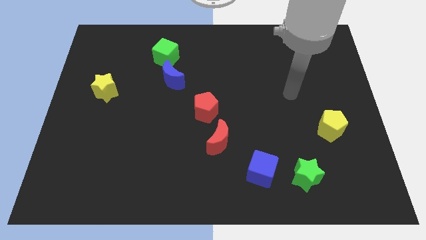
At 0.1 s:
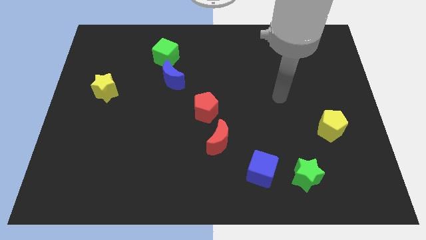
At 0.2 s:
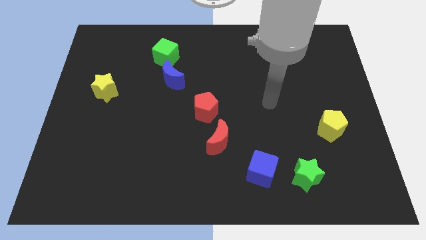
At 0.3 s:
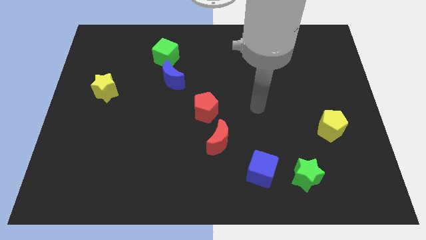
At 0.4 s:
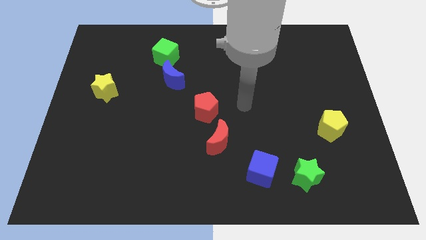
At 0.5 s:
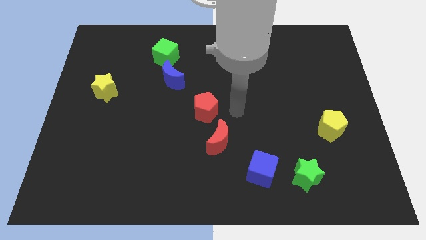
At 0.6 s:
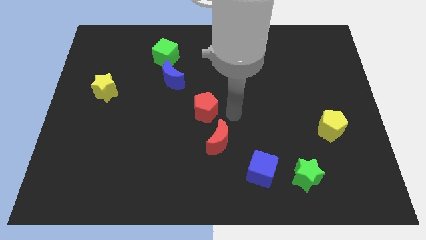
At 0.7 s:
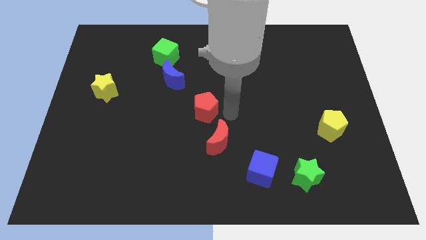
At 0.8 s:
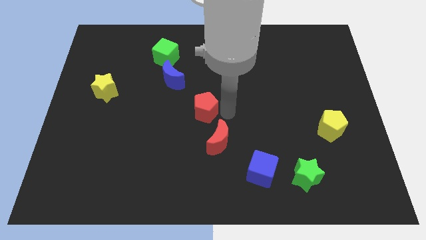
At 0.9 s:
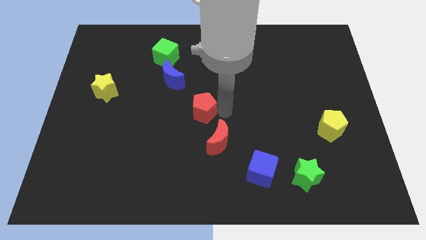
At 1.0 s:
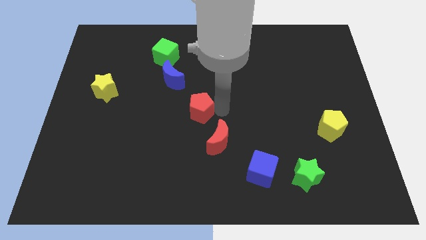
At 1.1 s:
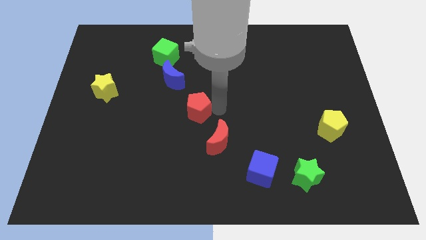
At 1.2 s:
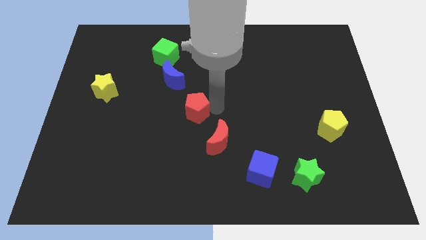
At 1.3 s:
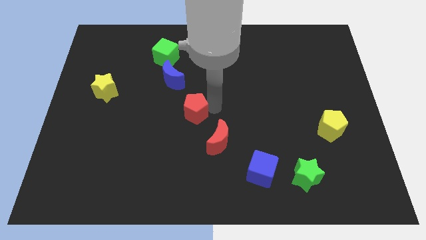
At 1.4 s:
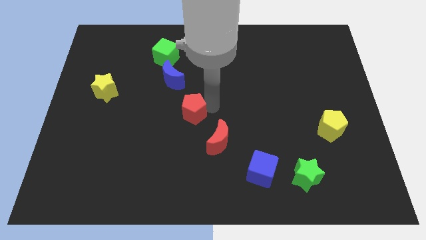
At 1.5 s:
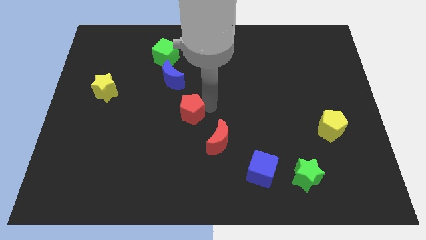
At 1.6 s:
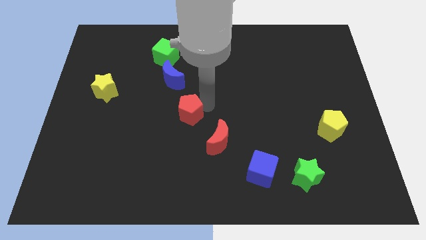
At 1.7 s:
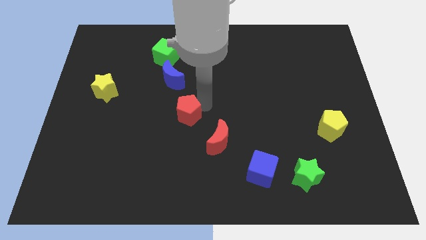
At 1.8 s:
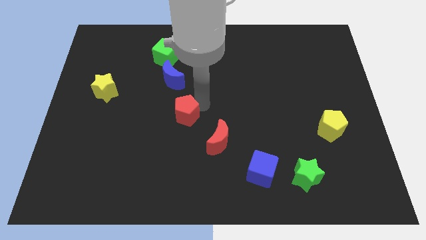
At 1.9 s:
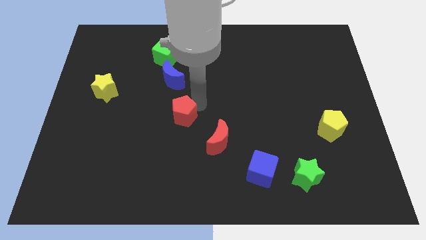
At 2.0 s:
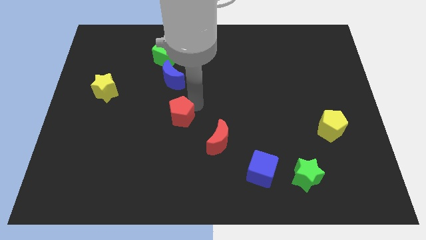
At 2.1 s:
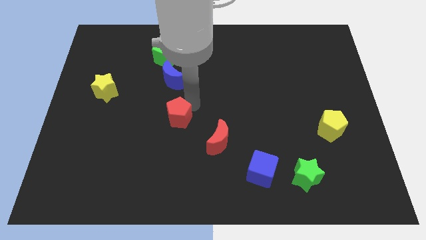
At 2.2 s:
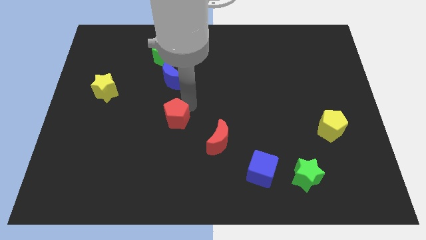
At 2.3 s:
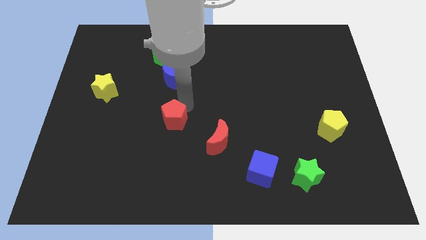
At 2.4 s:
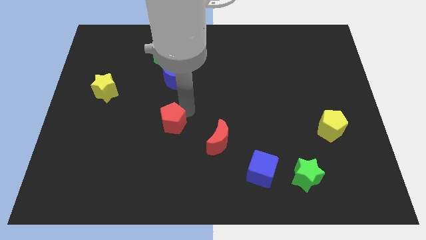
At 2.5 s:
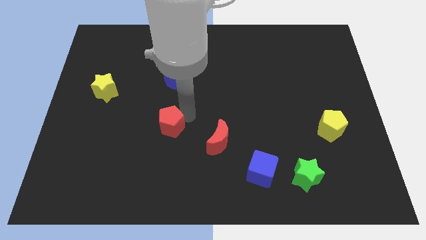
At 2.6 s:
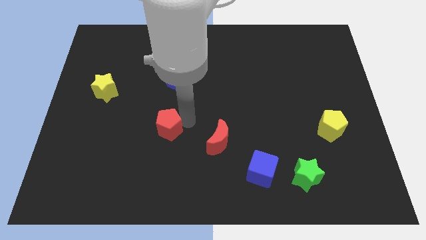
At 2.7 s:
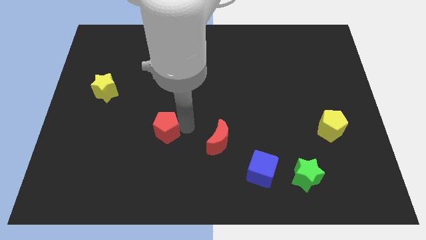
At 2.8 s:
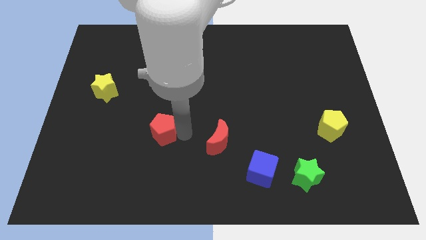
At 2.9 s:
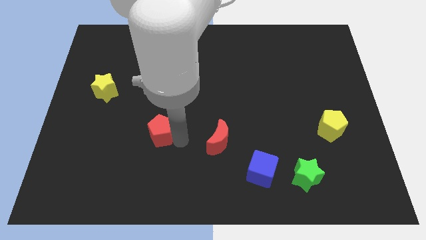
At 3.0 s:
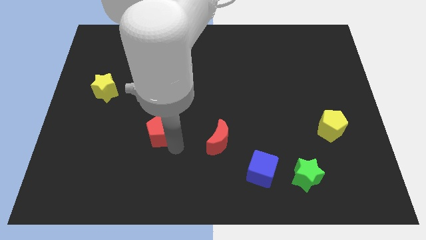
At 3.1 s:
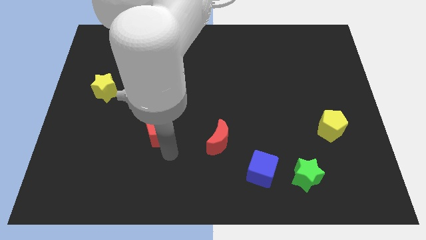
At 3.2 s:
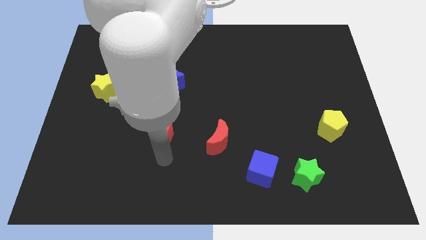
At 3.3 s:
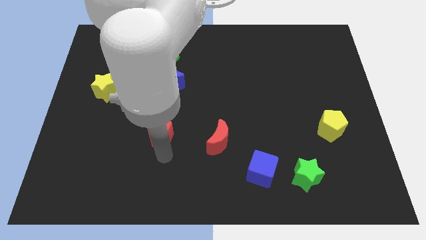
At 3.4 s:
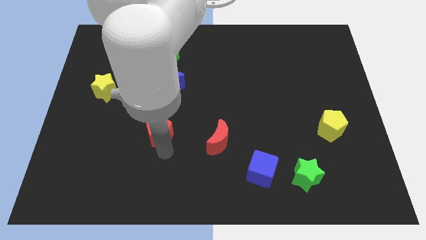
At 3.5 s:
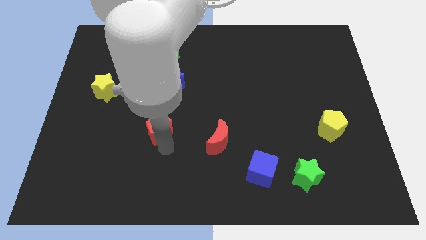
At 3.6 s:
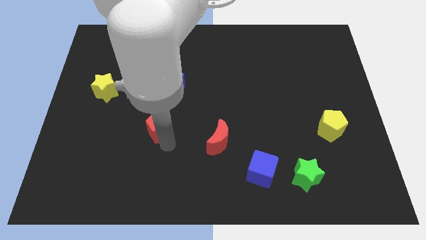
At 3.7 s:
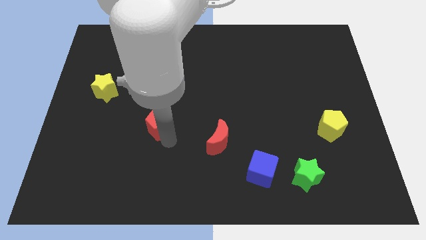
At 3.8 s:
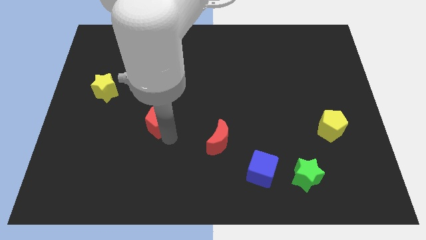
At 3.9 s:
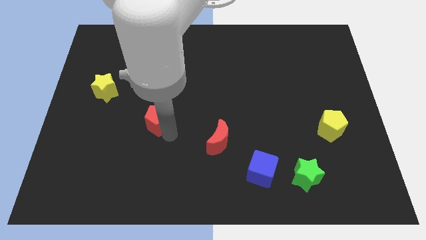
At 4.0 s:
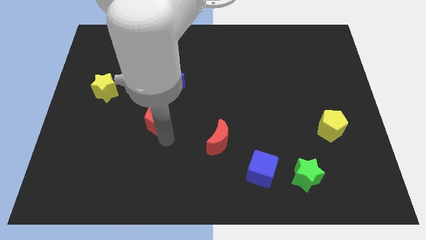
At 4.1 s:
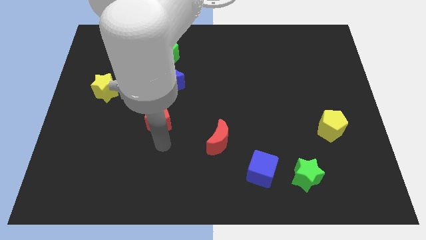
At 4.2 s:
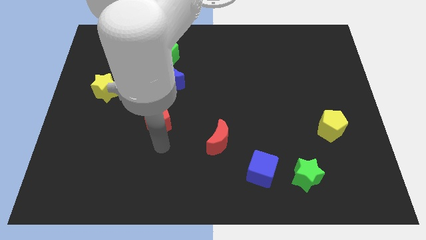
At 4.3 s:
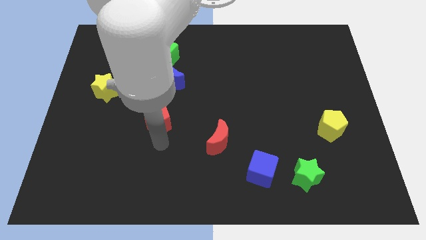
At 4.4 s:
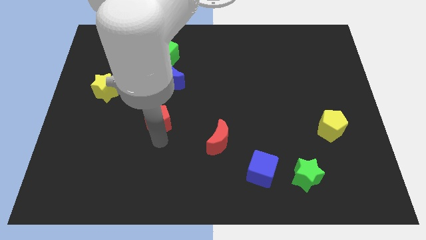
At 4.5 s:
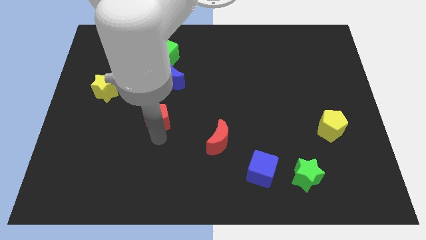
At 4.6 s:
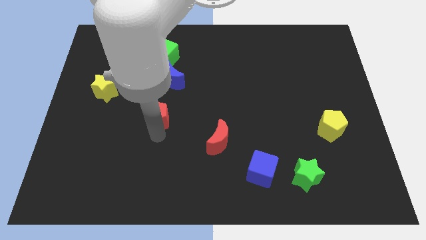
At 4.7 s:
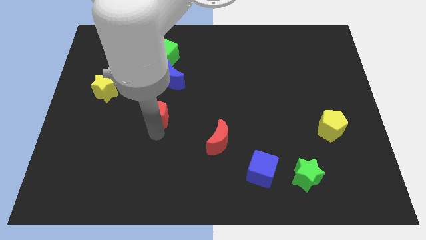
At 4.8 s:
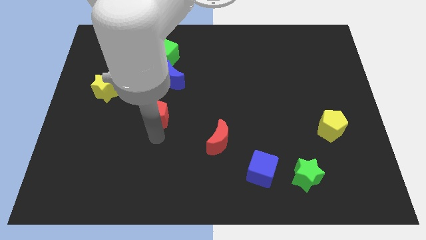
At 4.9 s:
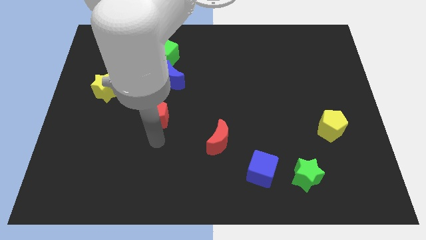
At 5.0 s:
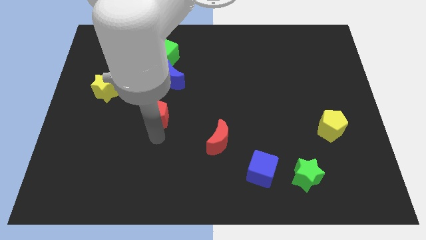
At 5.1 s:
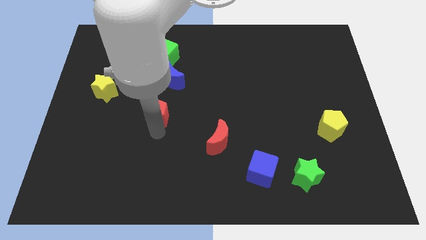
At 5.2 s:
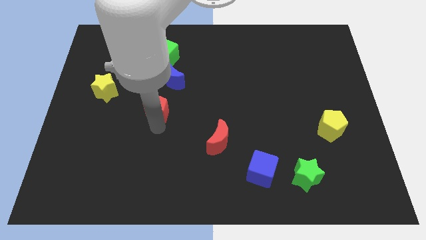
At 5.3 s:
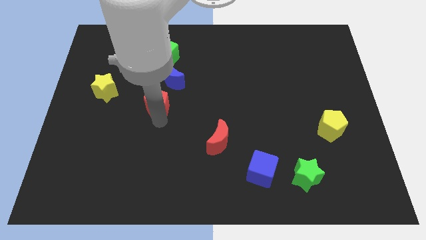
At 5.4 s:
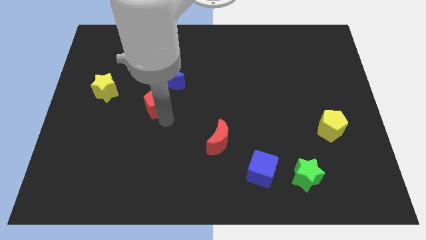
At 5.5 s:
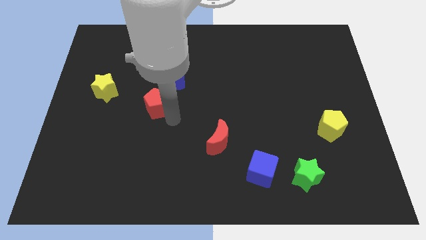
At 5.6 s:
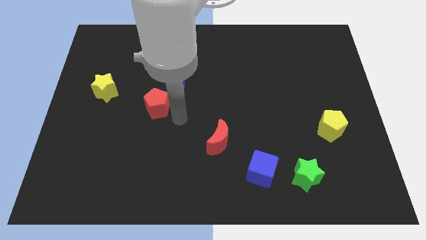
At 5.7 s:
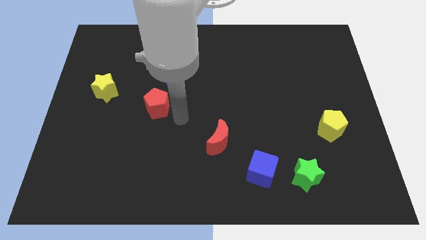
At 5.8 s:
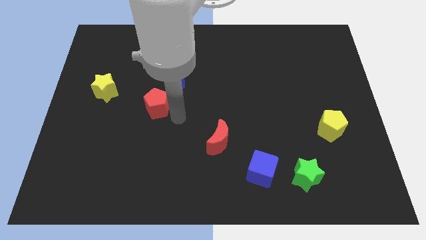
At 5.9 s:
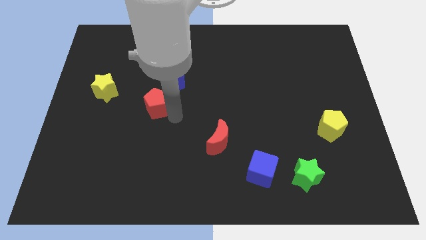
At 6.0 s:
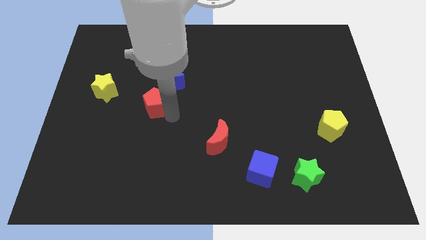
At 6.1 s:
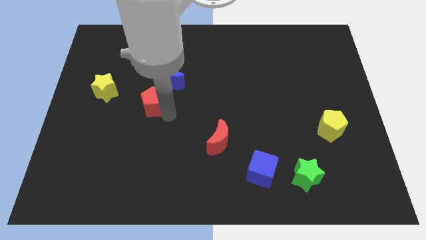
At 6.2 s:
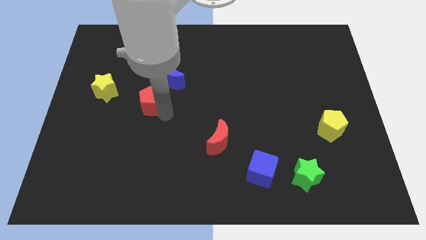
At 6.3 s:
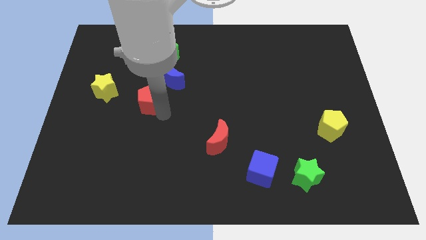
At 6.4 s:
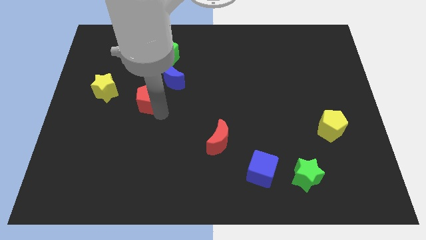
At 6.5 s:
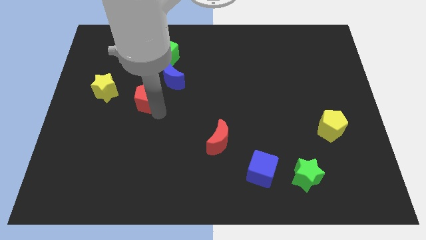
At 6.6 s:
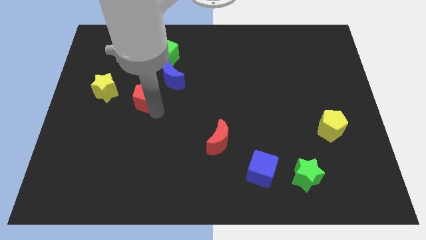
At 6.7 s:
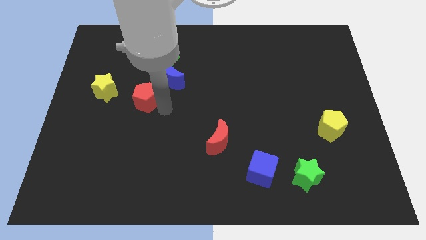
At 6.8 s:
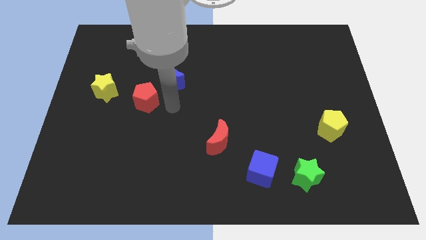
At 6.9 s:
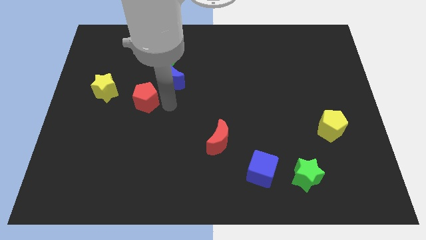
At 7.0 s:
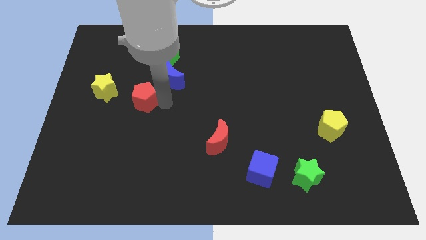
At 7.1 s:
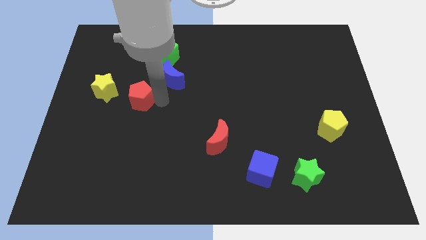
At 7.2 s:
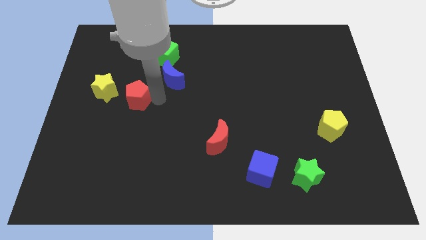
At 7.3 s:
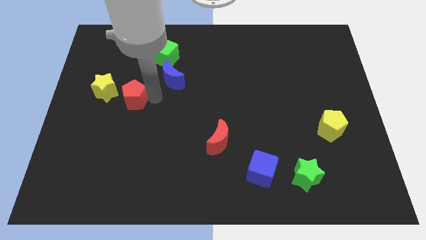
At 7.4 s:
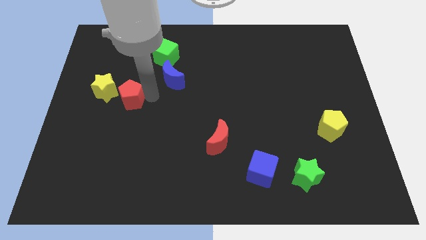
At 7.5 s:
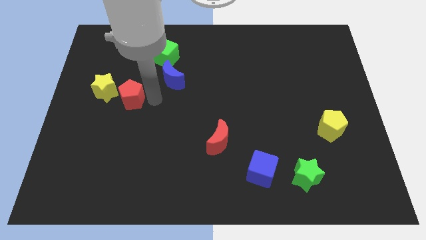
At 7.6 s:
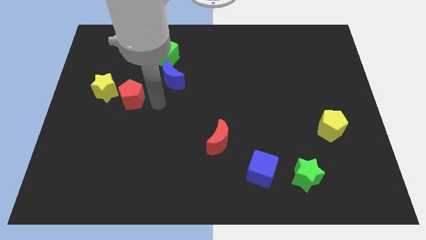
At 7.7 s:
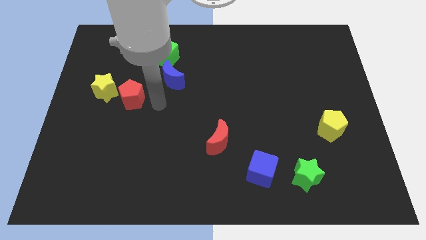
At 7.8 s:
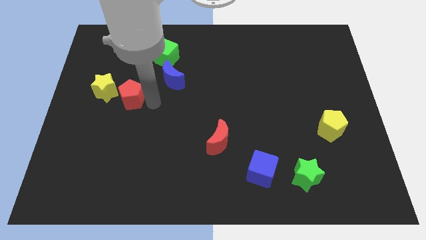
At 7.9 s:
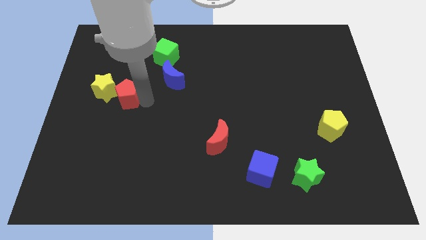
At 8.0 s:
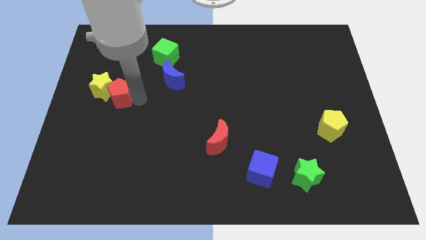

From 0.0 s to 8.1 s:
move the red pentagon close to the yellow star
